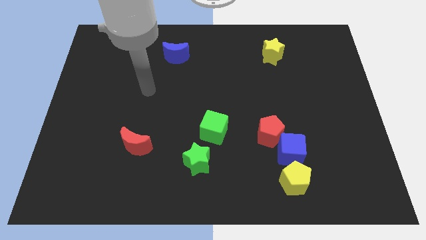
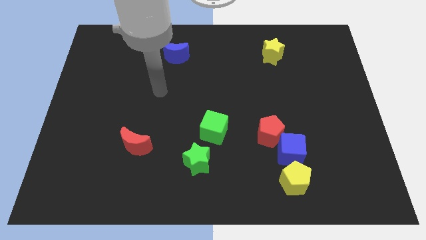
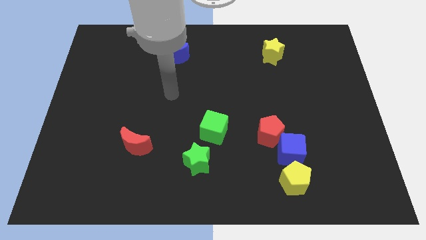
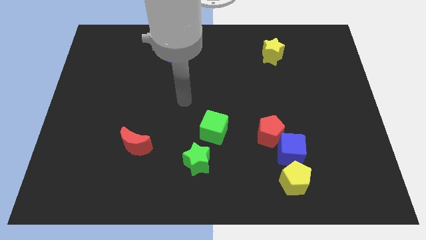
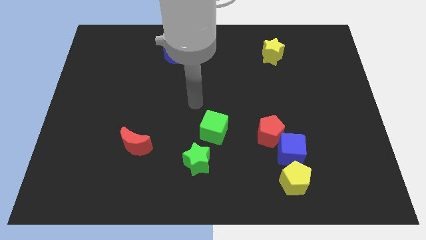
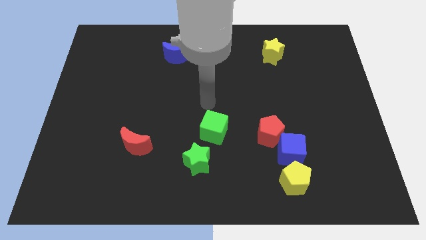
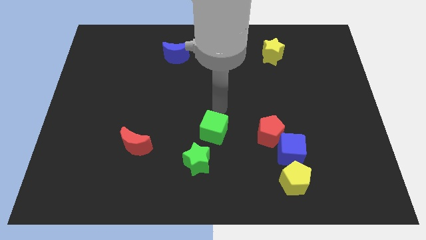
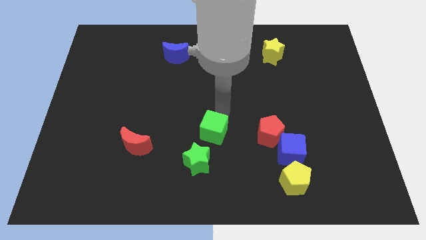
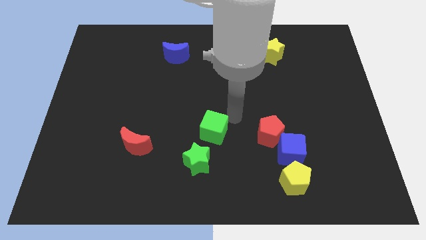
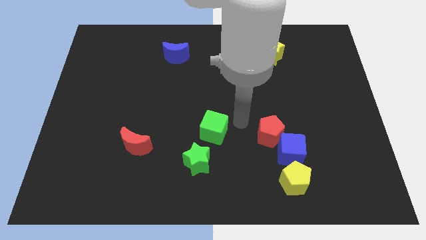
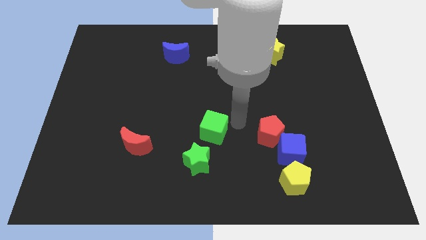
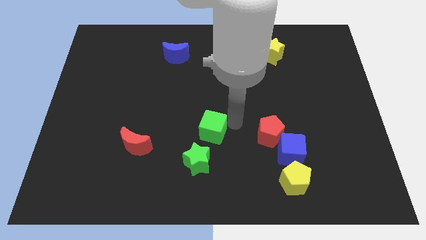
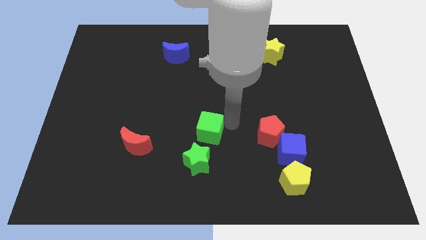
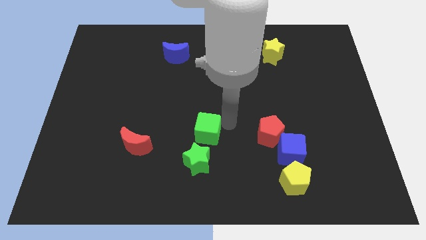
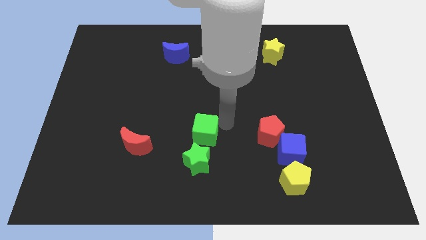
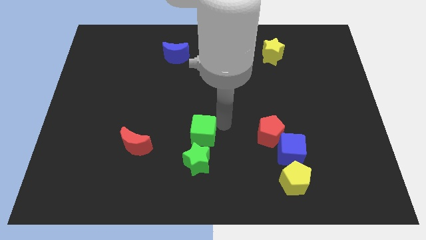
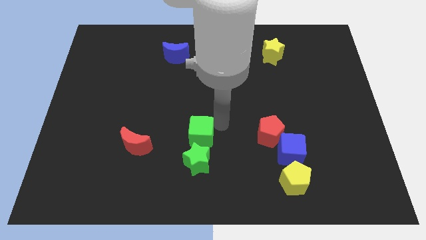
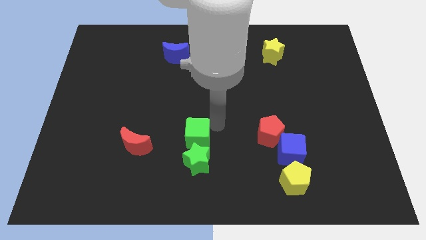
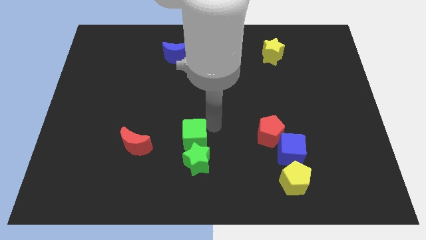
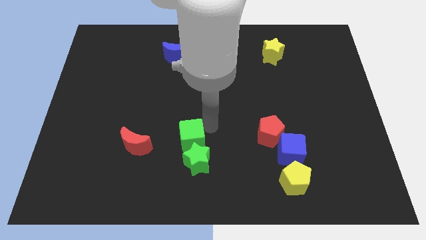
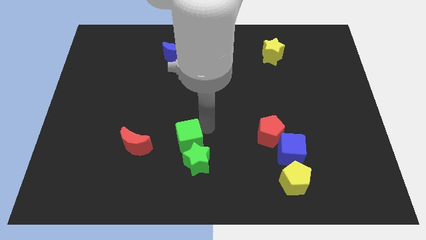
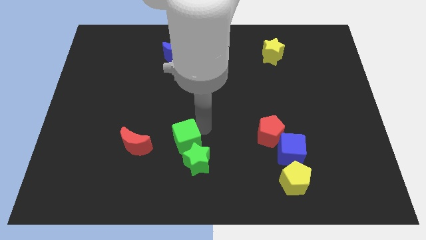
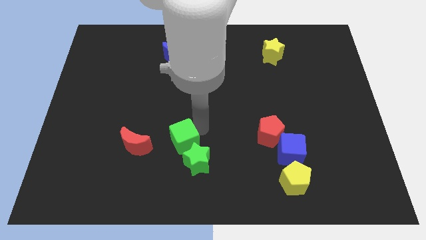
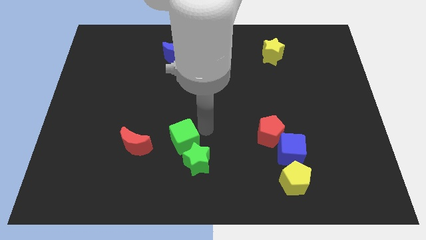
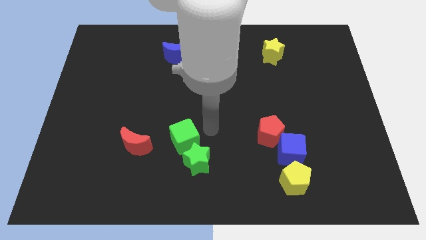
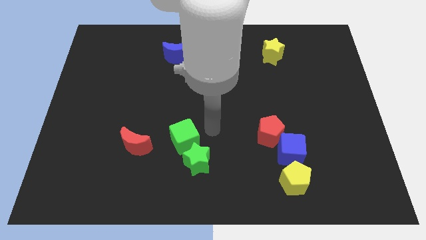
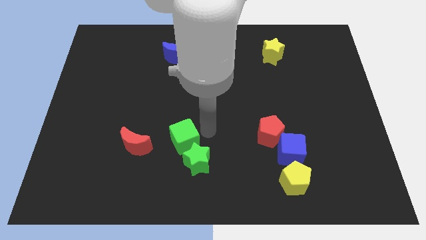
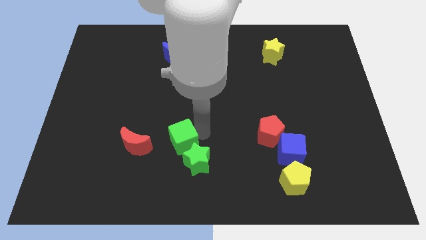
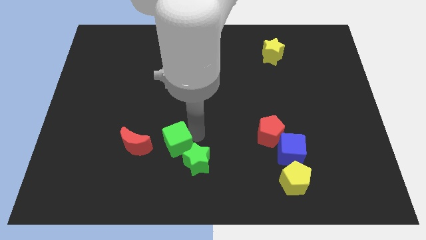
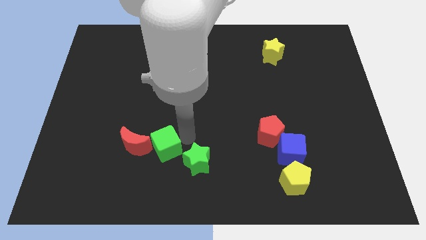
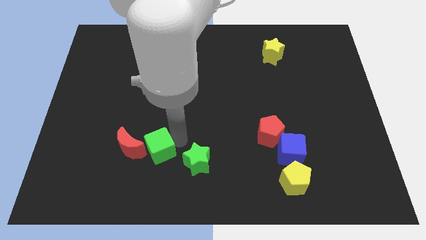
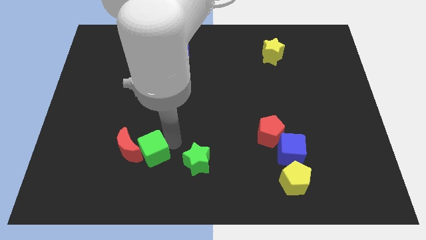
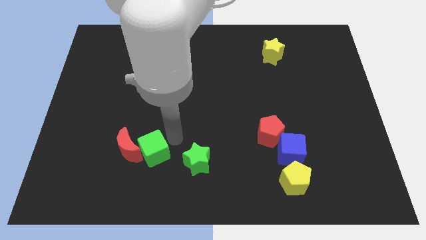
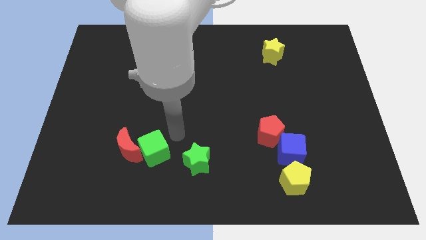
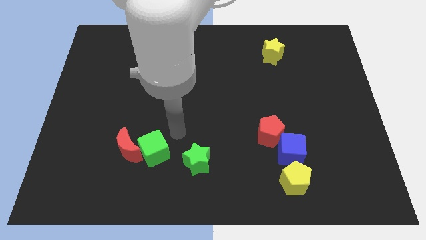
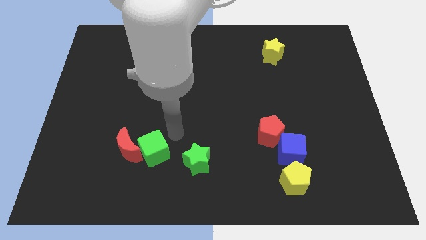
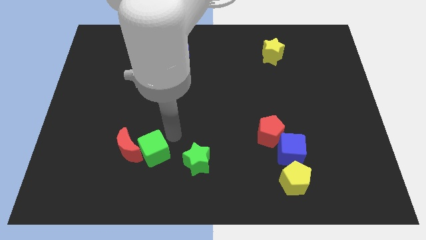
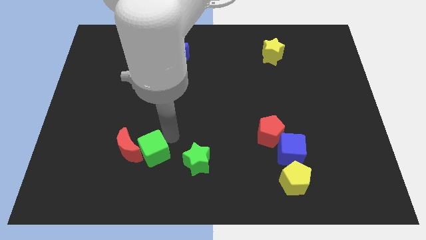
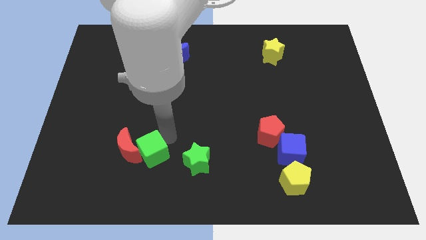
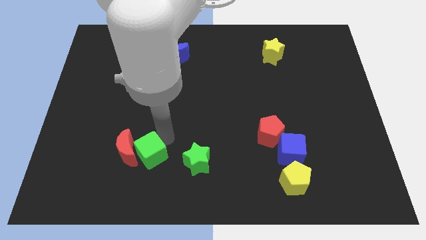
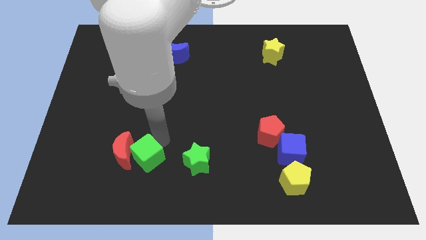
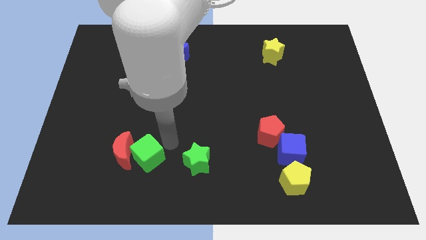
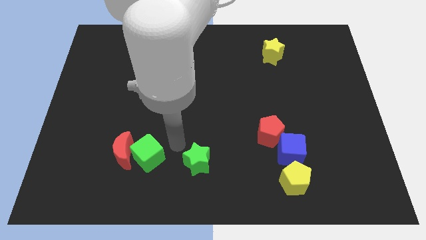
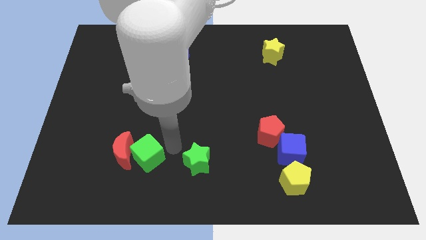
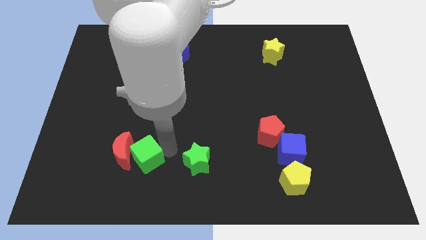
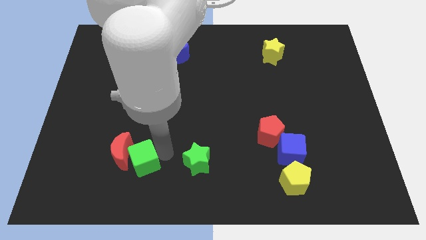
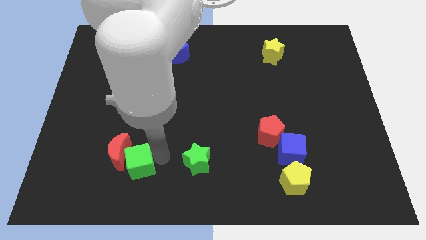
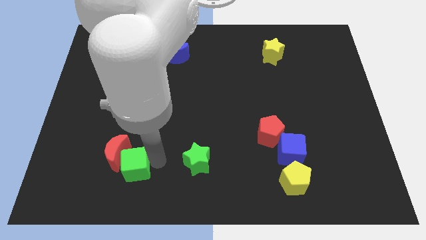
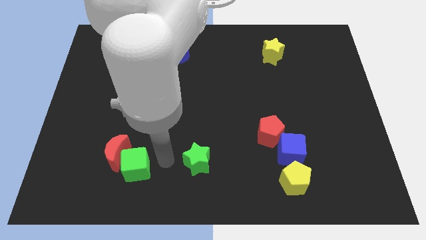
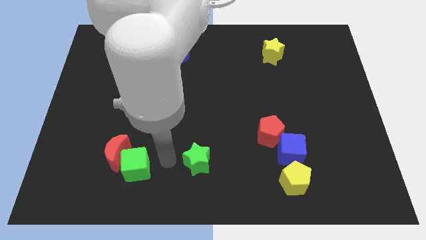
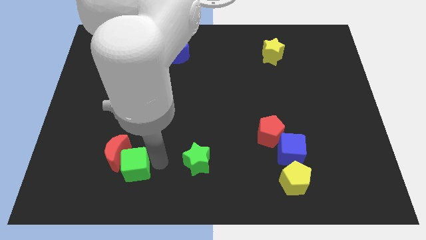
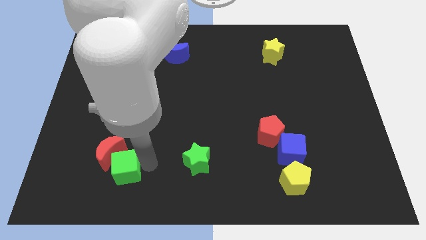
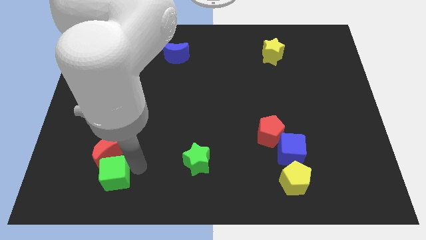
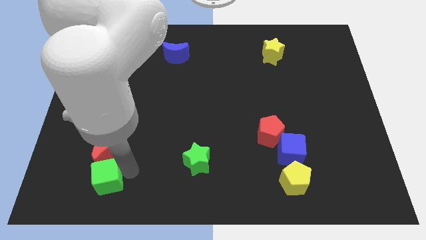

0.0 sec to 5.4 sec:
slide the green cube to the bottom left of the red moon

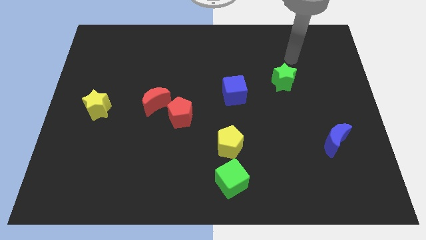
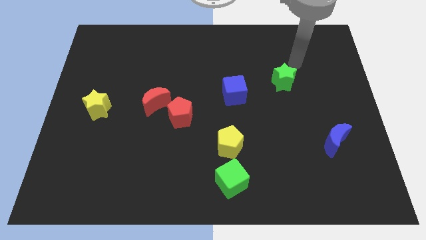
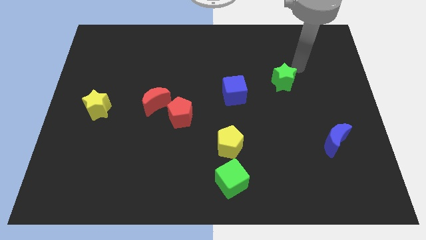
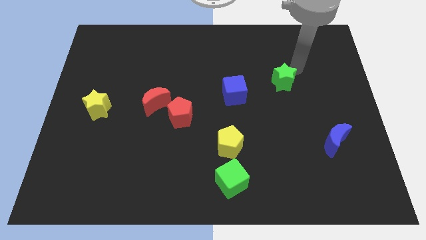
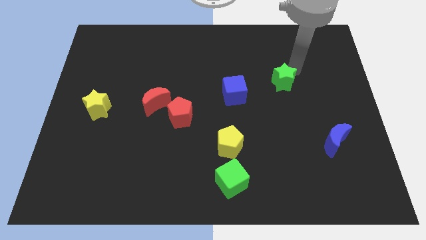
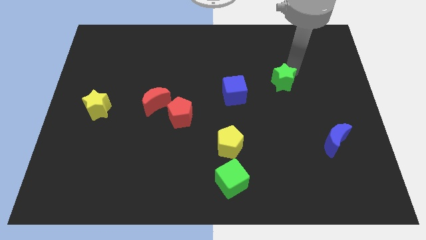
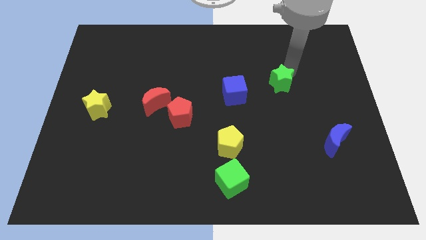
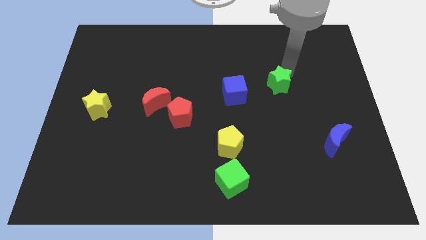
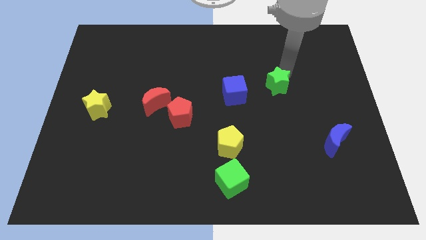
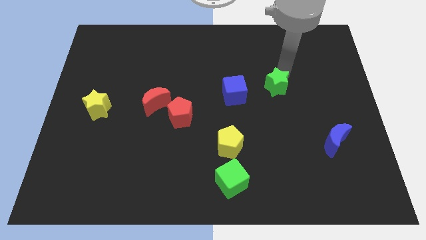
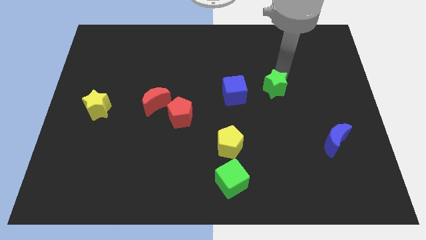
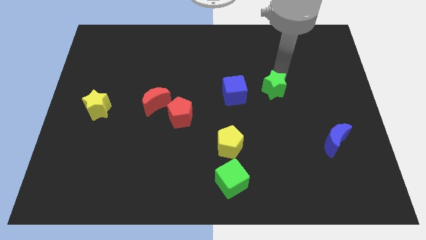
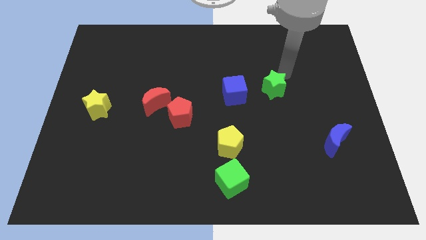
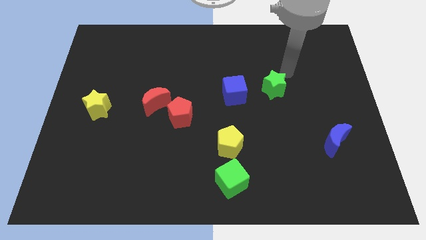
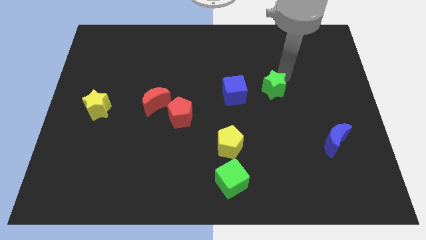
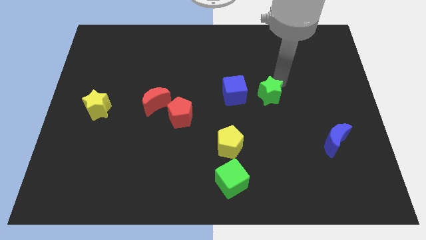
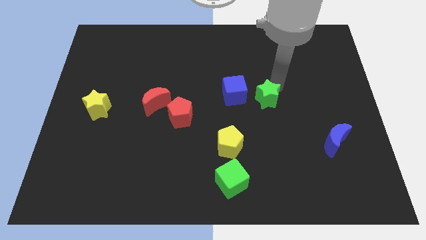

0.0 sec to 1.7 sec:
push the green star to the bottom right of the blue cube
